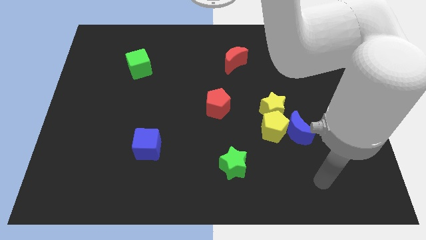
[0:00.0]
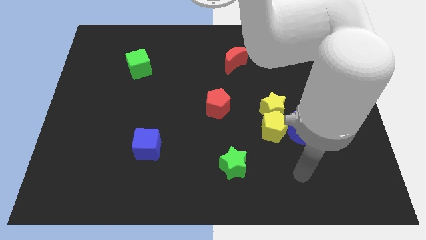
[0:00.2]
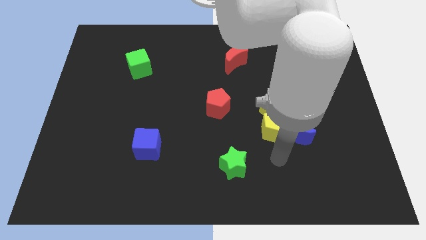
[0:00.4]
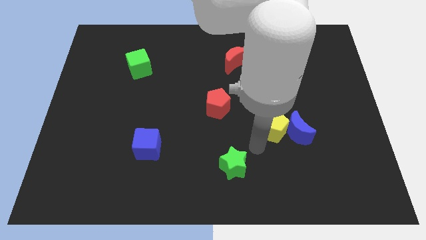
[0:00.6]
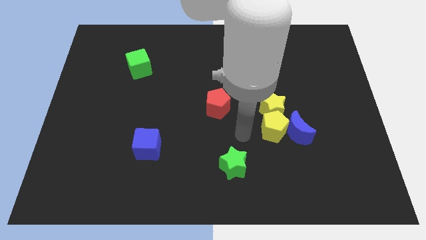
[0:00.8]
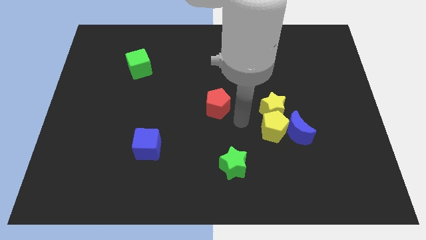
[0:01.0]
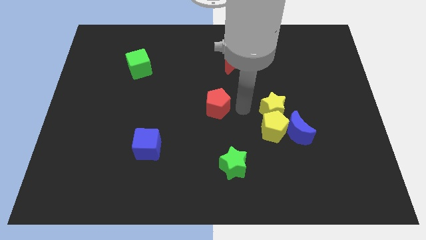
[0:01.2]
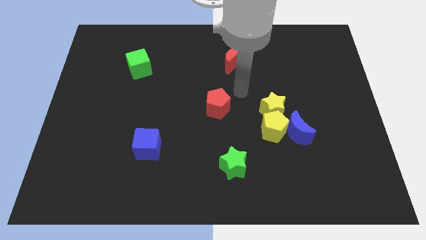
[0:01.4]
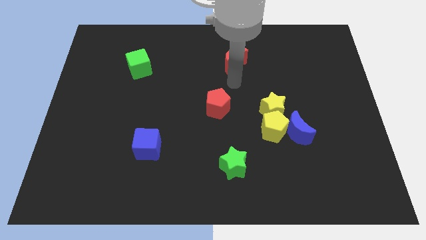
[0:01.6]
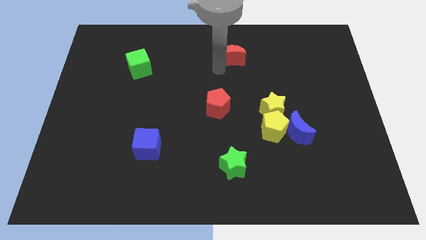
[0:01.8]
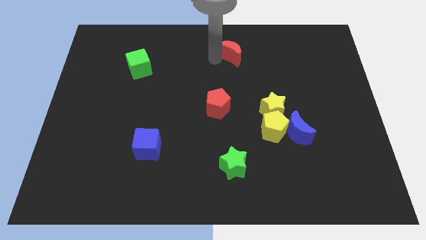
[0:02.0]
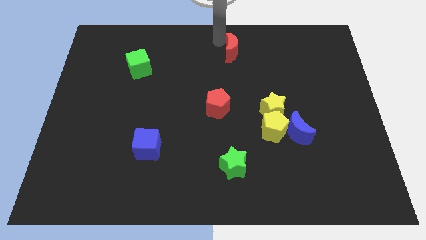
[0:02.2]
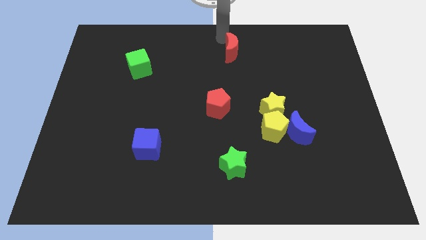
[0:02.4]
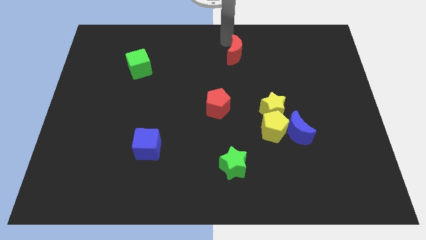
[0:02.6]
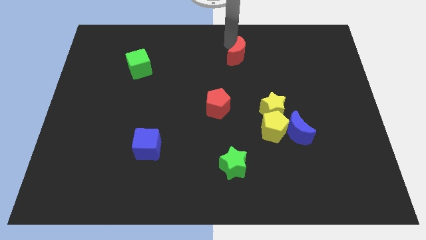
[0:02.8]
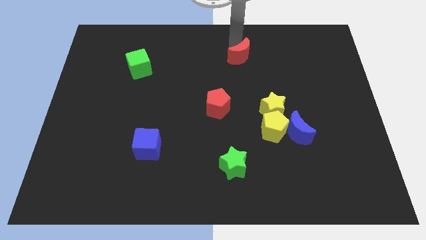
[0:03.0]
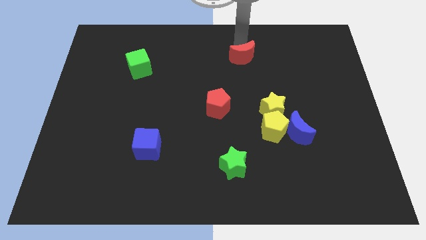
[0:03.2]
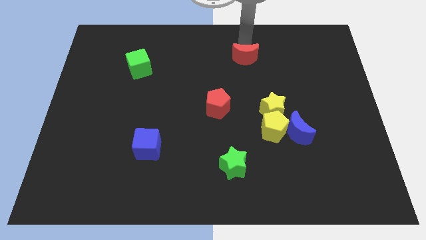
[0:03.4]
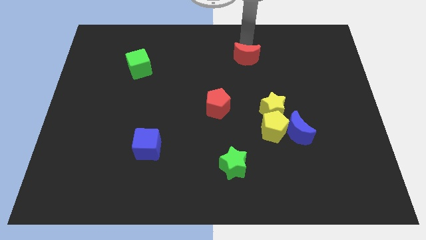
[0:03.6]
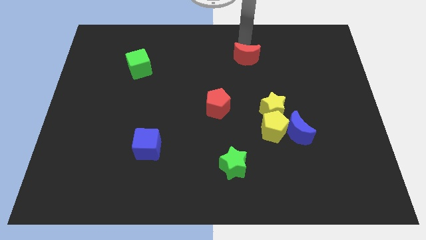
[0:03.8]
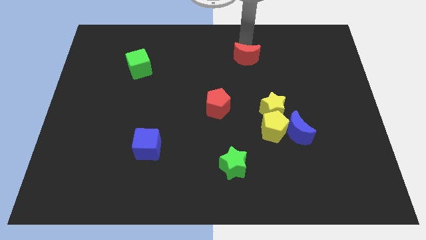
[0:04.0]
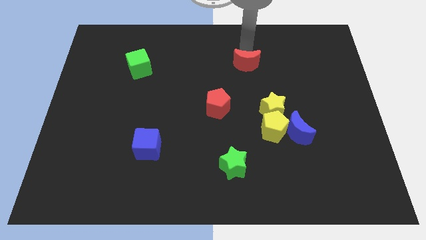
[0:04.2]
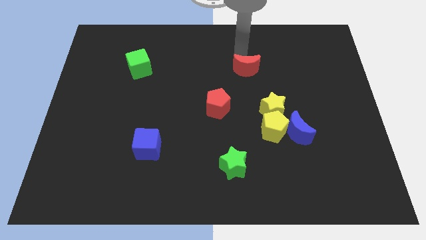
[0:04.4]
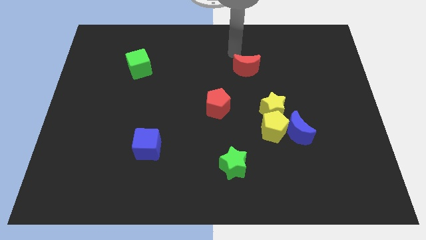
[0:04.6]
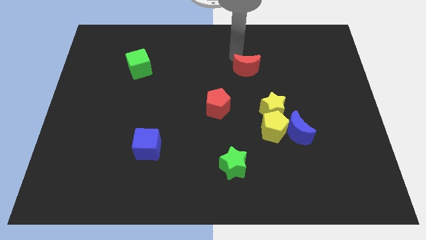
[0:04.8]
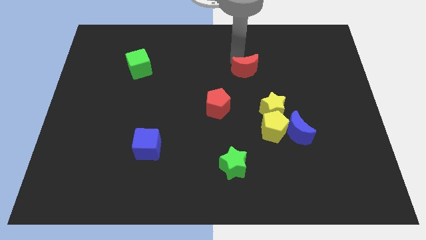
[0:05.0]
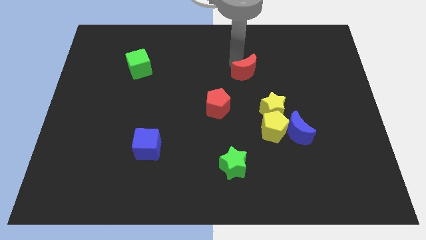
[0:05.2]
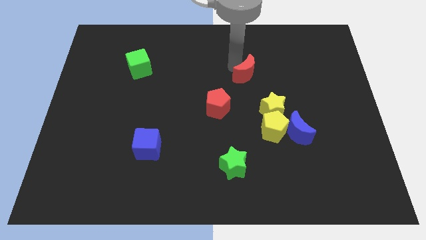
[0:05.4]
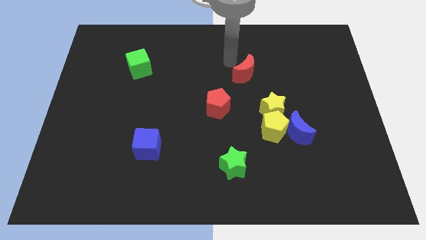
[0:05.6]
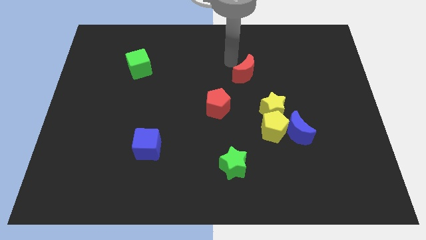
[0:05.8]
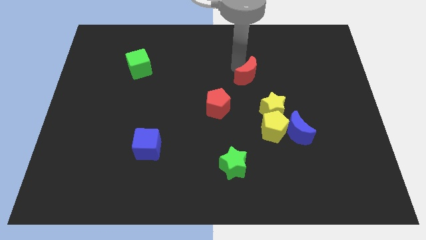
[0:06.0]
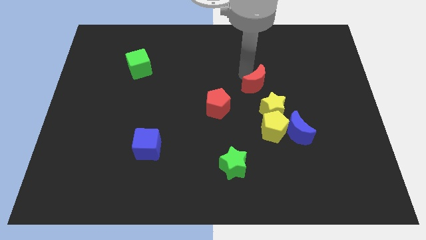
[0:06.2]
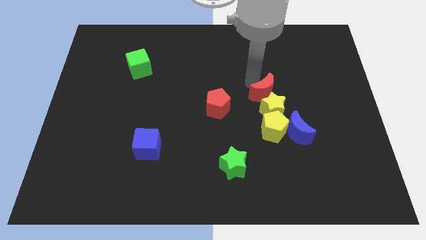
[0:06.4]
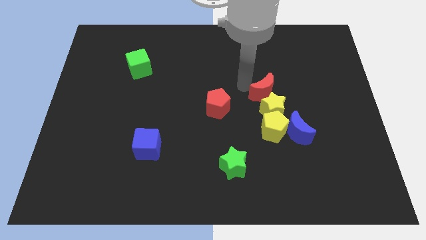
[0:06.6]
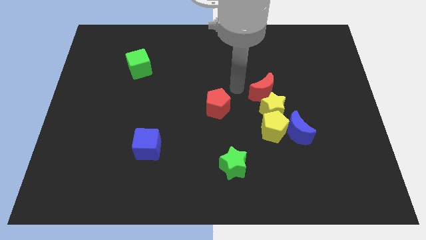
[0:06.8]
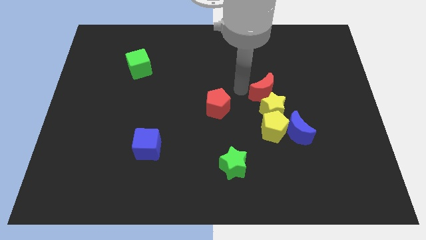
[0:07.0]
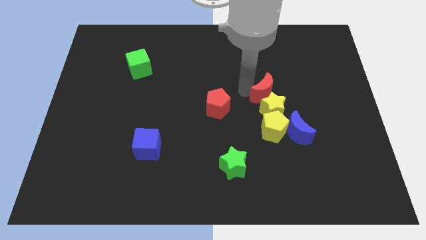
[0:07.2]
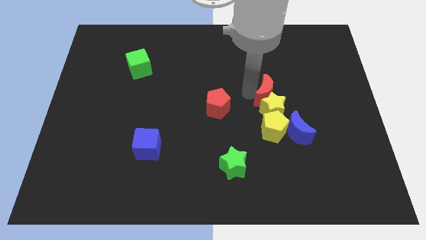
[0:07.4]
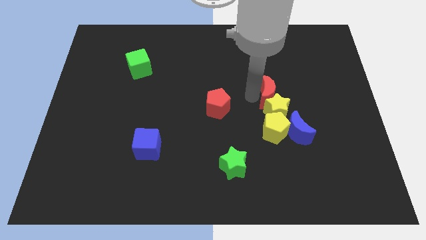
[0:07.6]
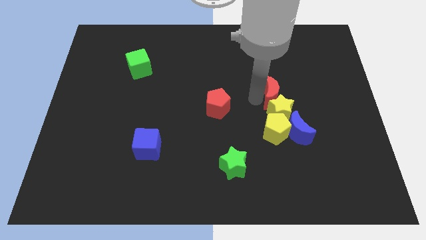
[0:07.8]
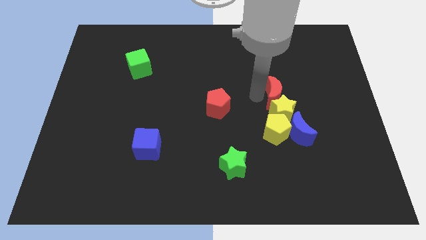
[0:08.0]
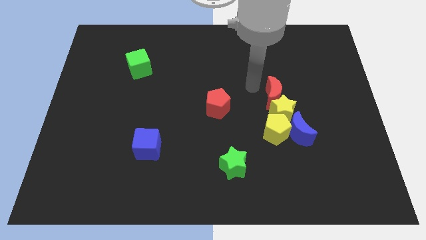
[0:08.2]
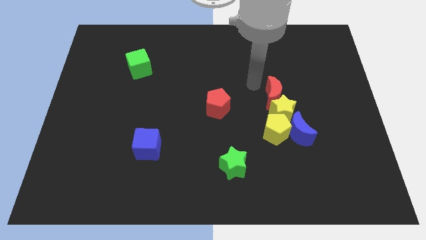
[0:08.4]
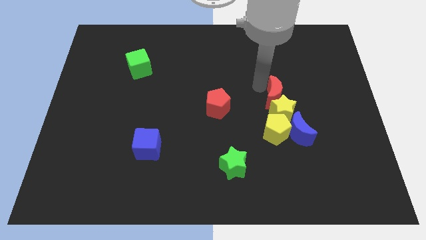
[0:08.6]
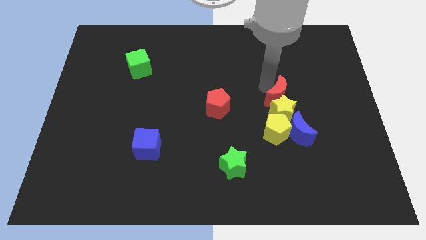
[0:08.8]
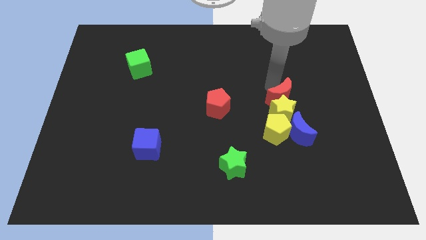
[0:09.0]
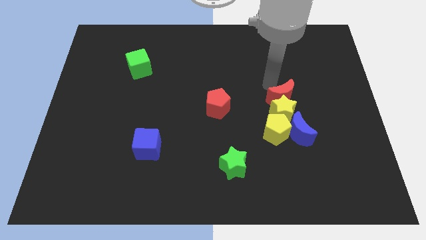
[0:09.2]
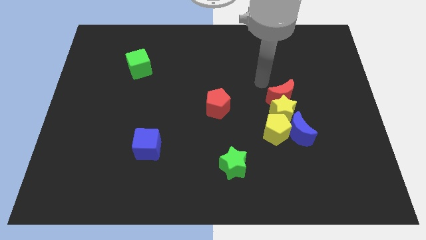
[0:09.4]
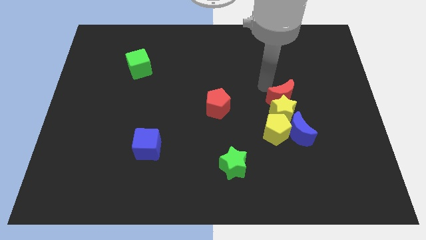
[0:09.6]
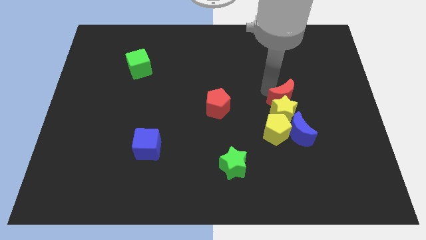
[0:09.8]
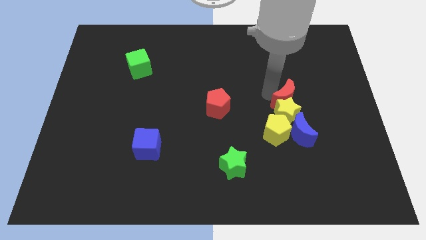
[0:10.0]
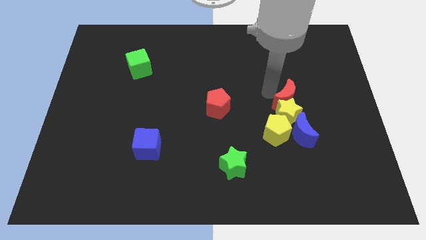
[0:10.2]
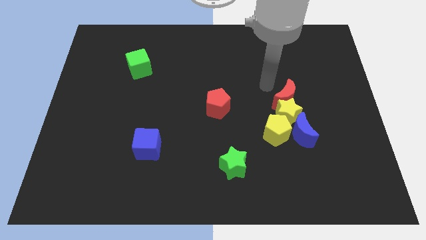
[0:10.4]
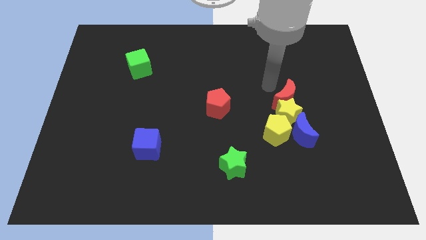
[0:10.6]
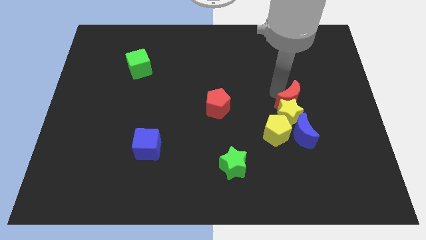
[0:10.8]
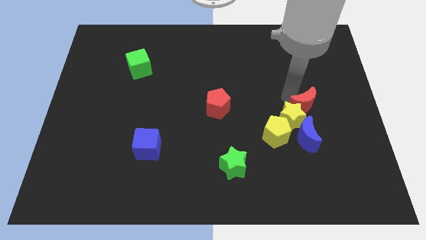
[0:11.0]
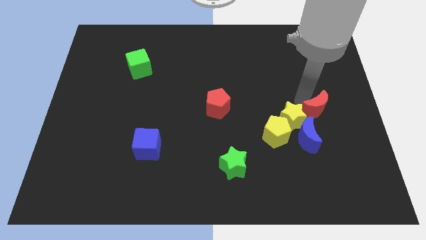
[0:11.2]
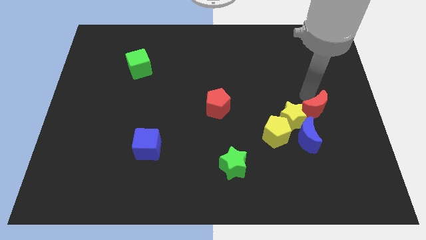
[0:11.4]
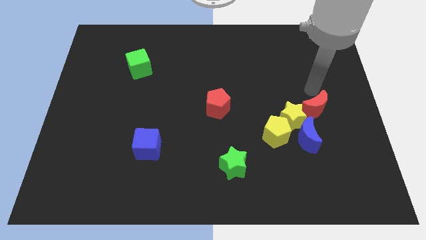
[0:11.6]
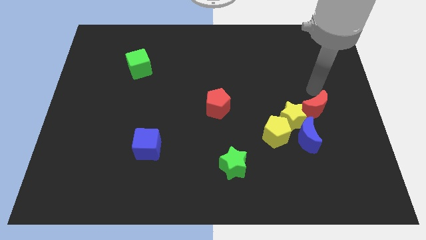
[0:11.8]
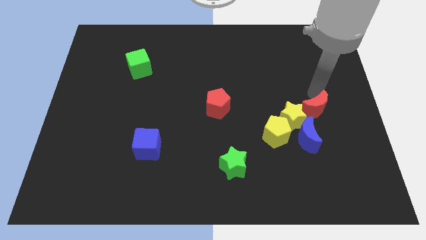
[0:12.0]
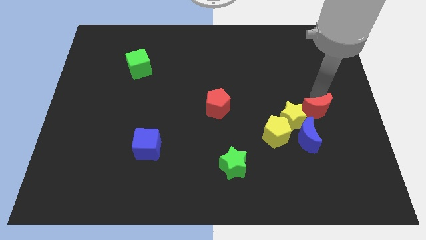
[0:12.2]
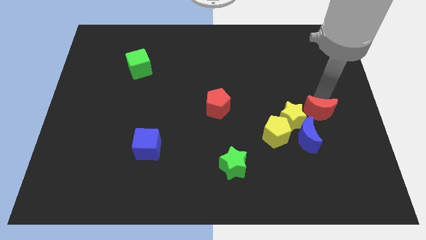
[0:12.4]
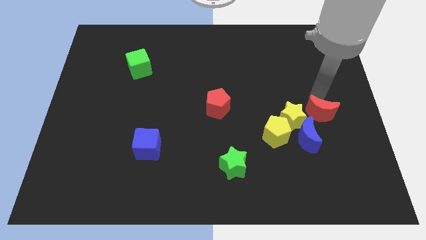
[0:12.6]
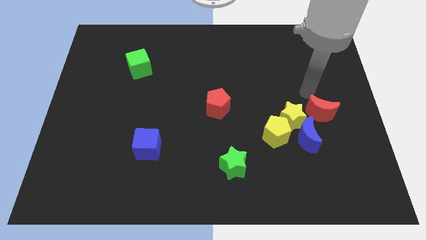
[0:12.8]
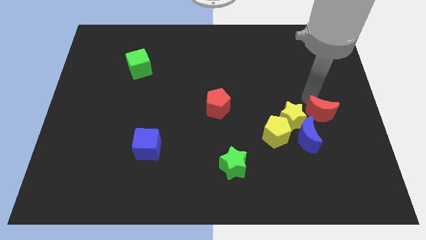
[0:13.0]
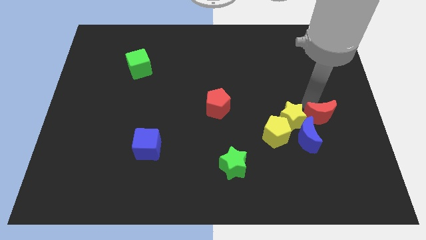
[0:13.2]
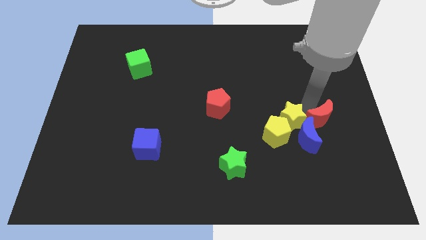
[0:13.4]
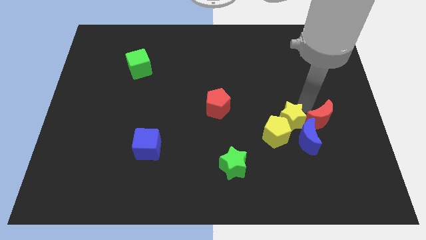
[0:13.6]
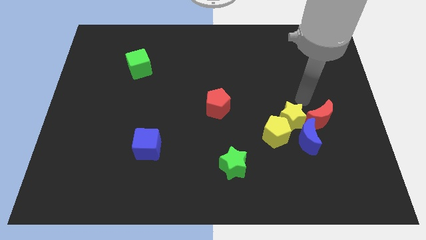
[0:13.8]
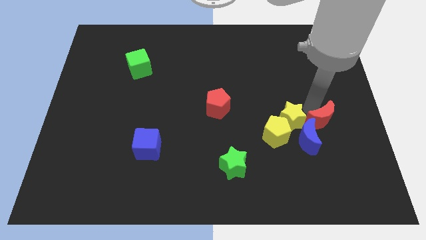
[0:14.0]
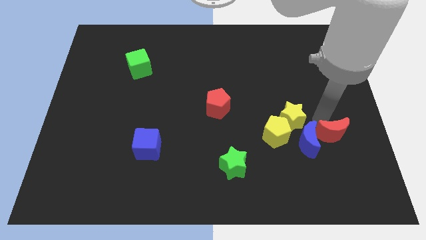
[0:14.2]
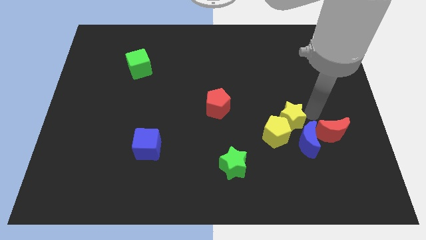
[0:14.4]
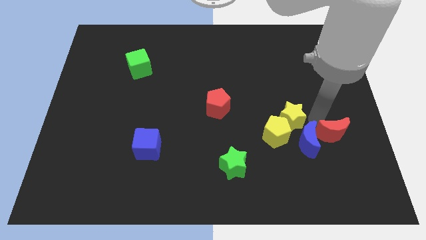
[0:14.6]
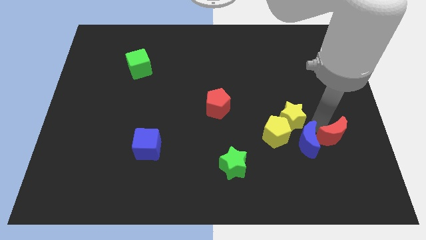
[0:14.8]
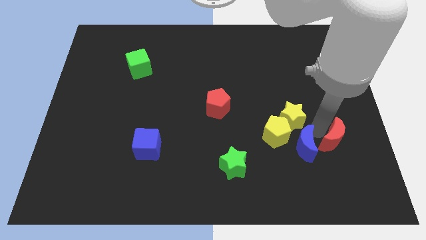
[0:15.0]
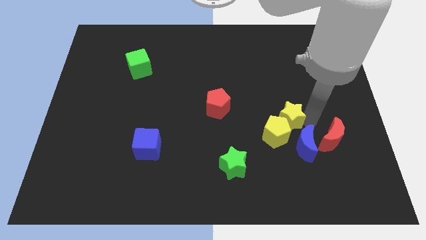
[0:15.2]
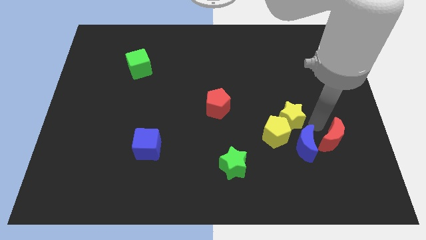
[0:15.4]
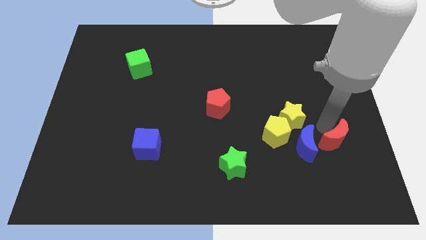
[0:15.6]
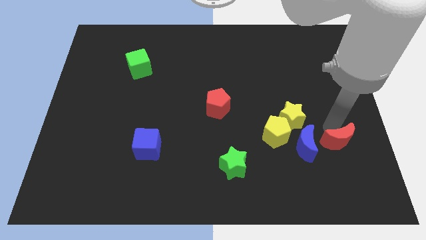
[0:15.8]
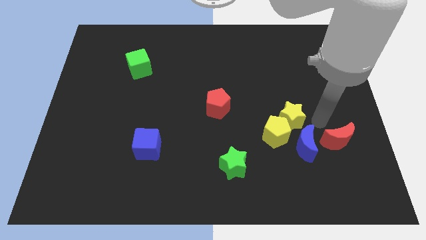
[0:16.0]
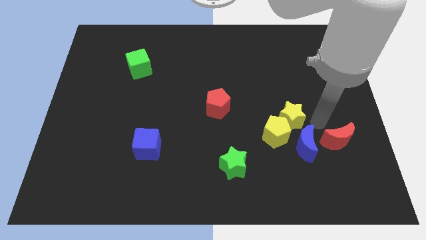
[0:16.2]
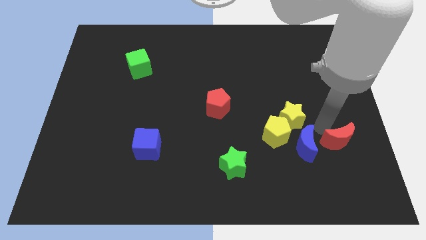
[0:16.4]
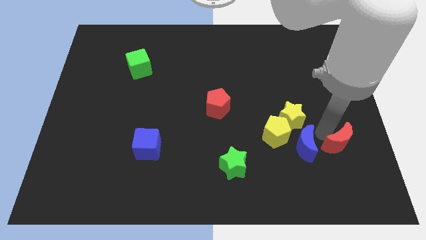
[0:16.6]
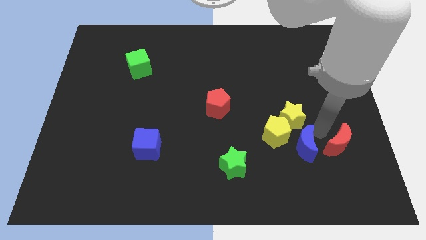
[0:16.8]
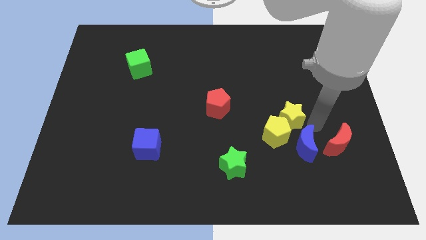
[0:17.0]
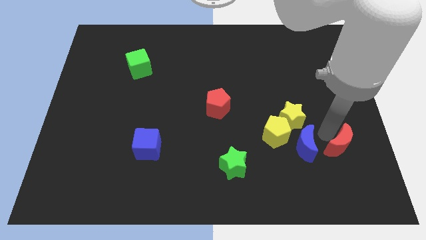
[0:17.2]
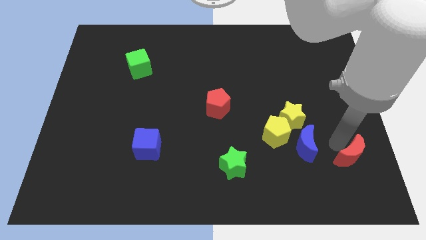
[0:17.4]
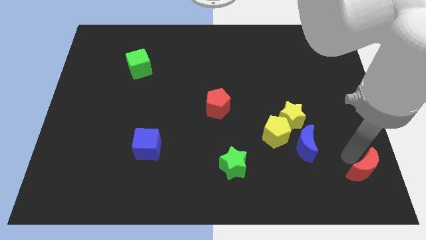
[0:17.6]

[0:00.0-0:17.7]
move the red moon to the bottom right of the board
